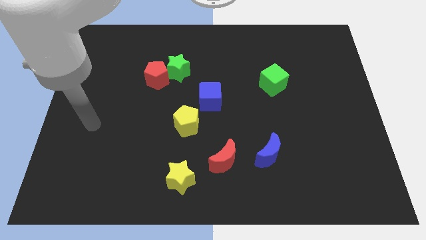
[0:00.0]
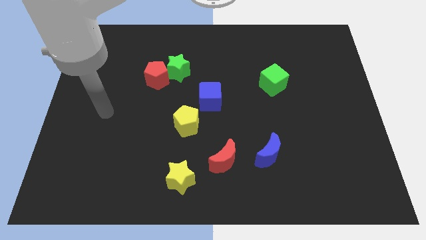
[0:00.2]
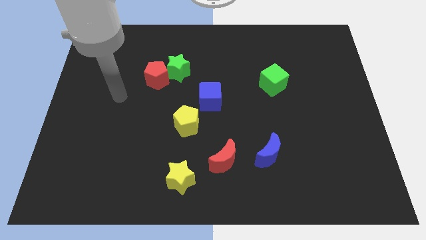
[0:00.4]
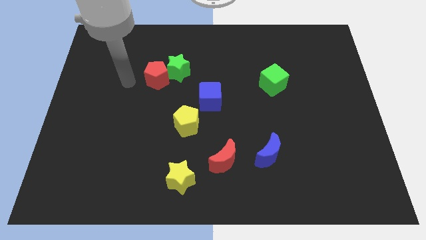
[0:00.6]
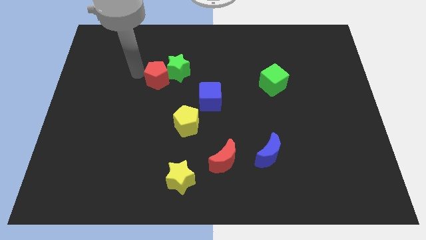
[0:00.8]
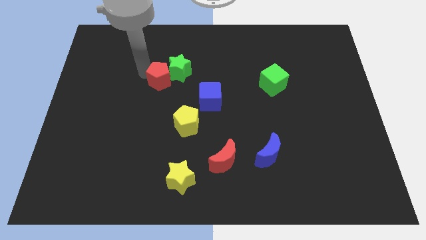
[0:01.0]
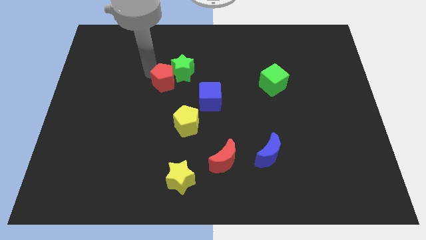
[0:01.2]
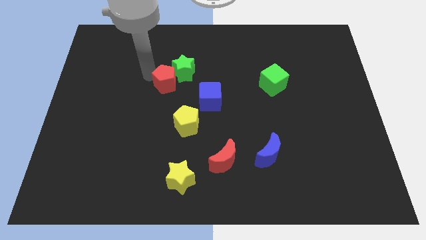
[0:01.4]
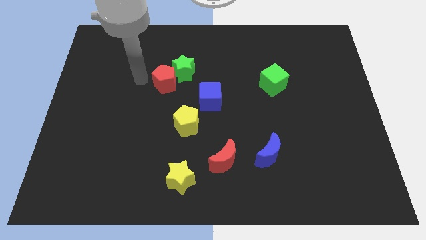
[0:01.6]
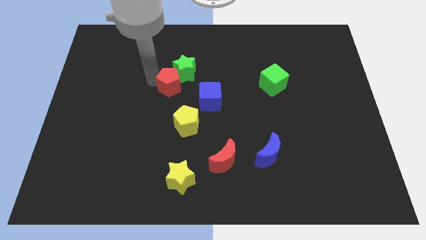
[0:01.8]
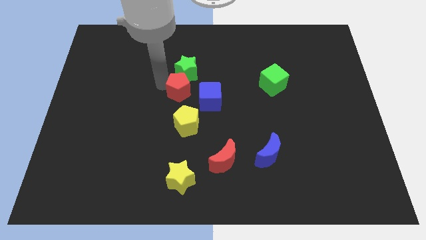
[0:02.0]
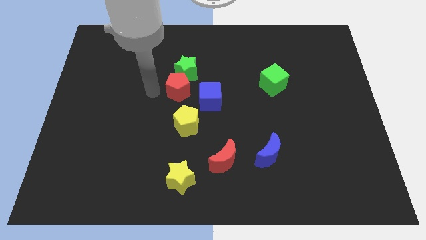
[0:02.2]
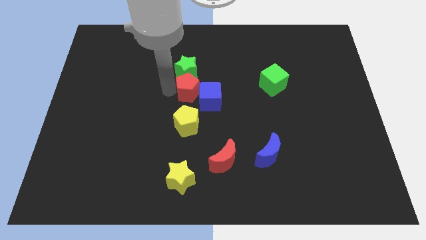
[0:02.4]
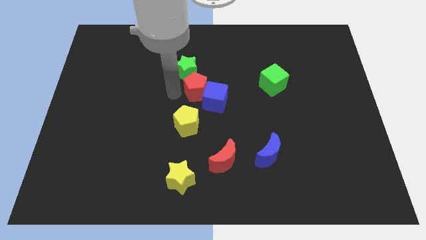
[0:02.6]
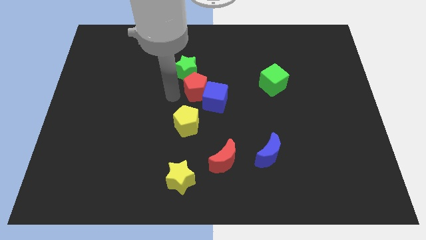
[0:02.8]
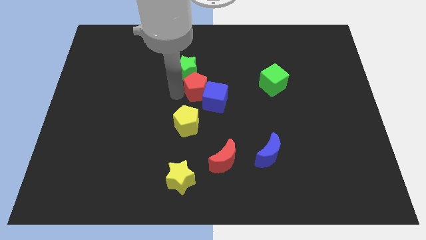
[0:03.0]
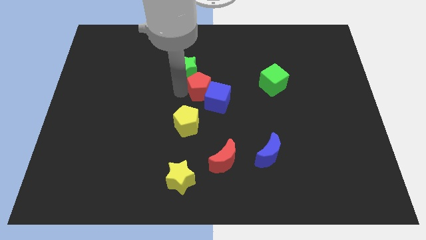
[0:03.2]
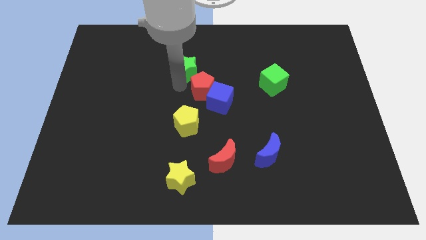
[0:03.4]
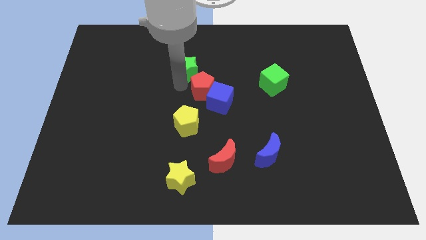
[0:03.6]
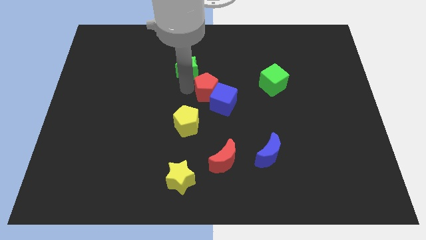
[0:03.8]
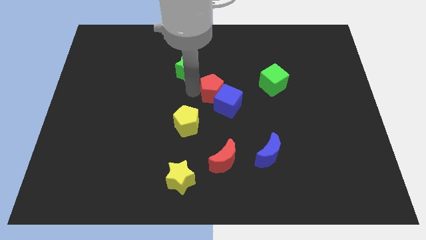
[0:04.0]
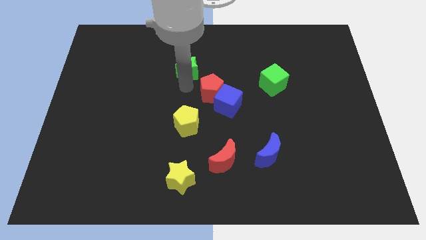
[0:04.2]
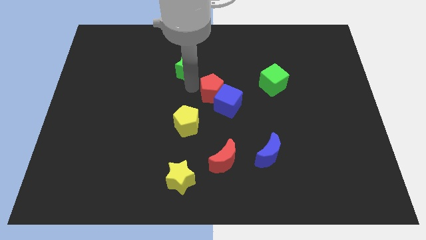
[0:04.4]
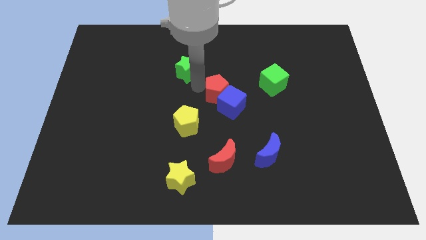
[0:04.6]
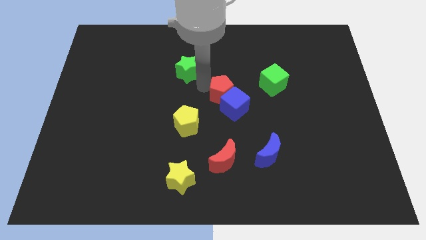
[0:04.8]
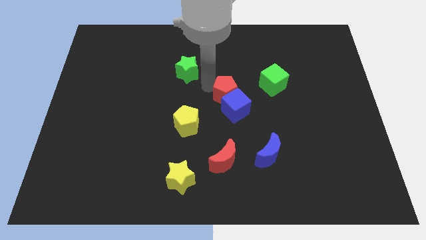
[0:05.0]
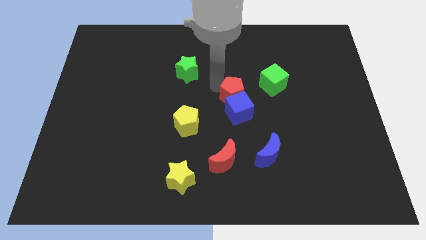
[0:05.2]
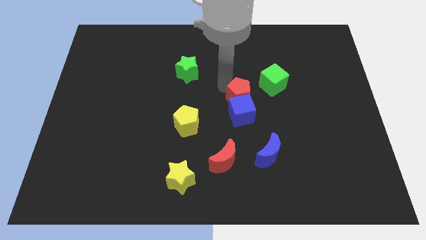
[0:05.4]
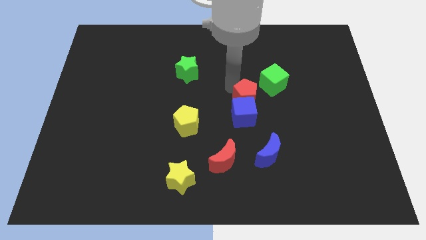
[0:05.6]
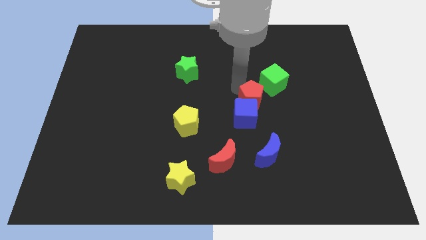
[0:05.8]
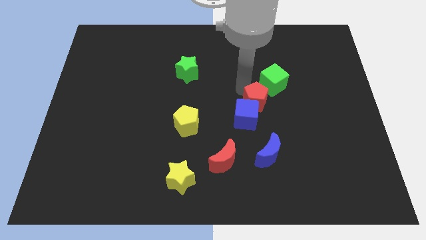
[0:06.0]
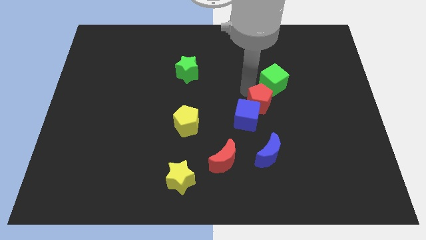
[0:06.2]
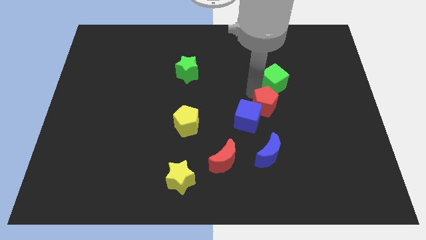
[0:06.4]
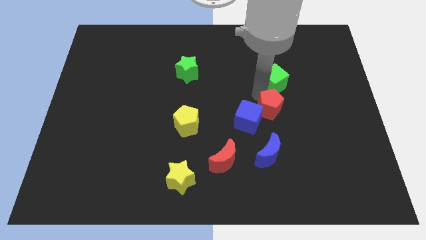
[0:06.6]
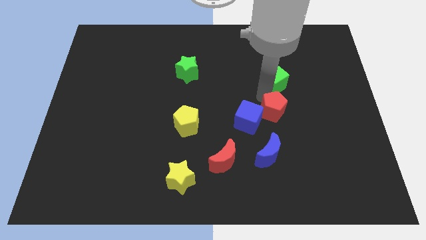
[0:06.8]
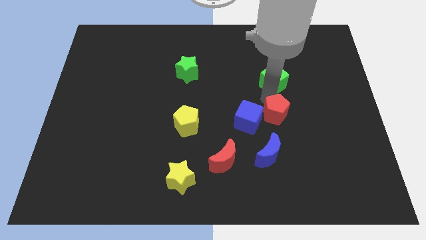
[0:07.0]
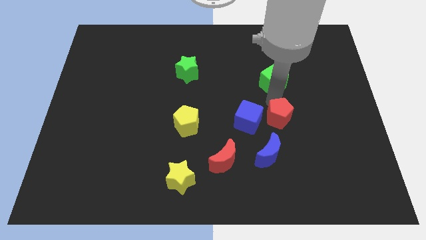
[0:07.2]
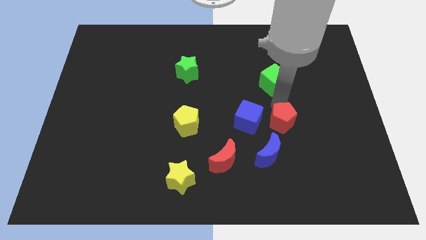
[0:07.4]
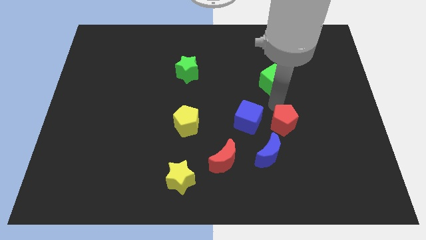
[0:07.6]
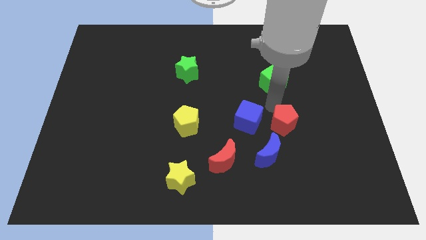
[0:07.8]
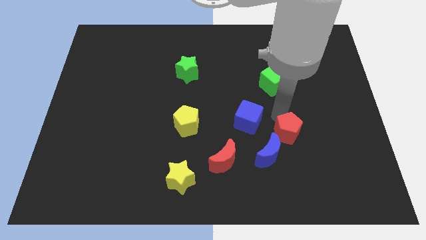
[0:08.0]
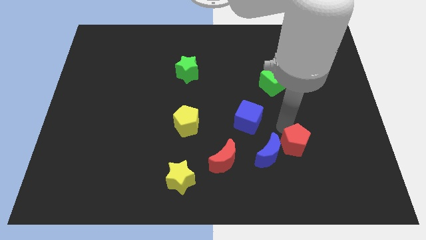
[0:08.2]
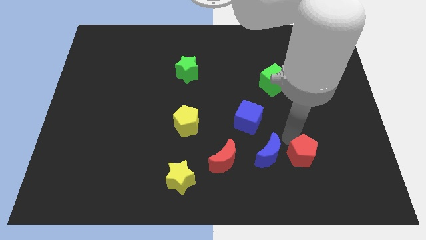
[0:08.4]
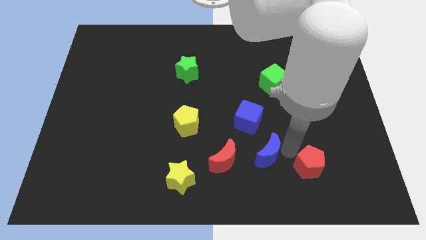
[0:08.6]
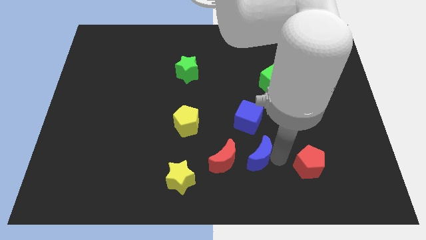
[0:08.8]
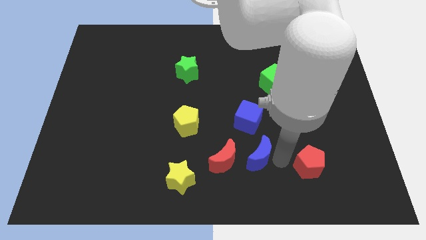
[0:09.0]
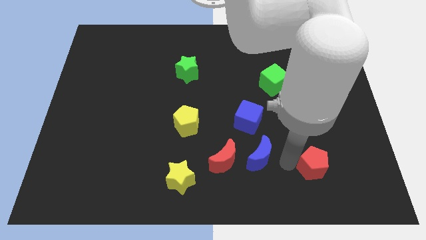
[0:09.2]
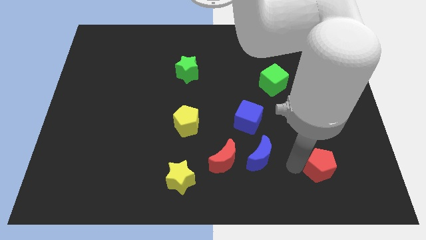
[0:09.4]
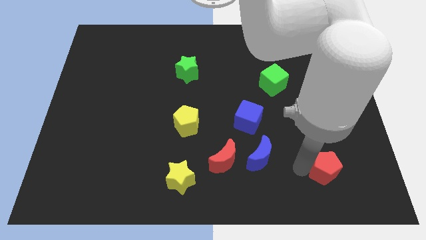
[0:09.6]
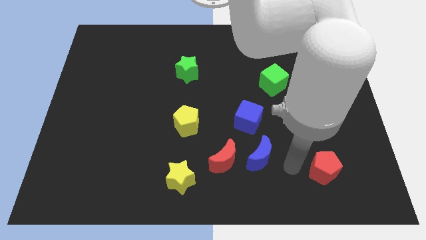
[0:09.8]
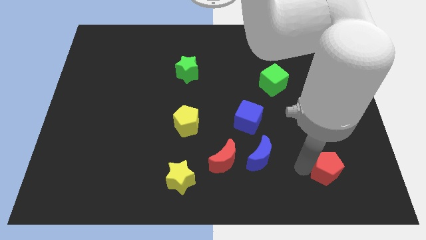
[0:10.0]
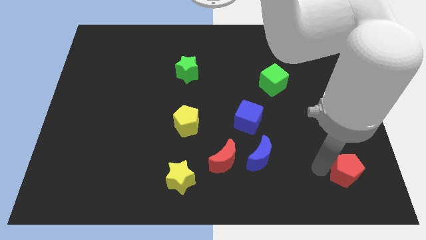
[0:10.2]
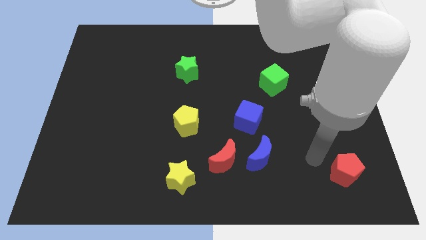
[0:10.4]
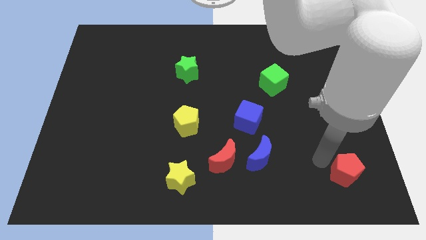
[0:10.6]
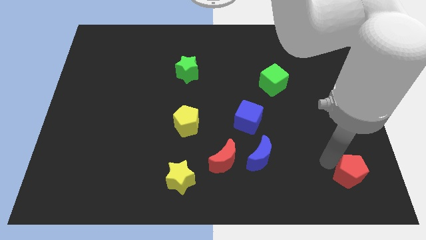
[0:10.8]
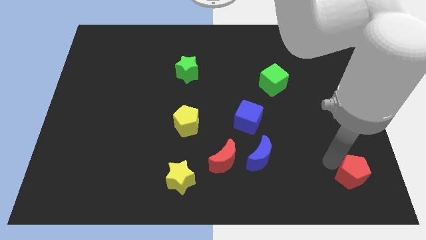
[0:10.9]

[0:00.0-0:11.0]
move the red pentagon to the bottom right of the board

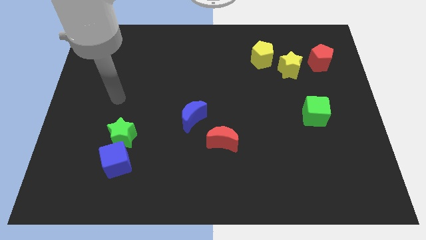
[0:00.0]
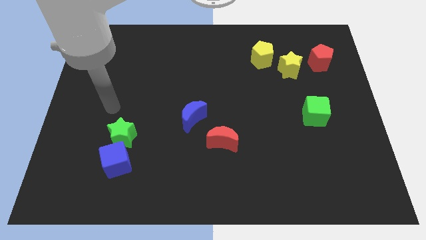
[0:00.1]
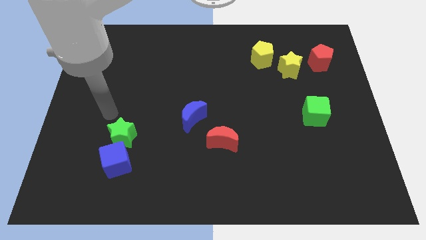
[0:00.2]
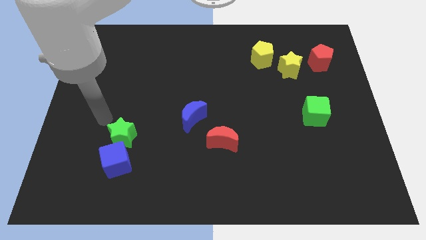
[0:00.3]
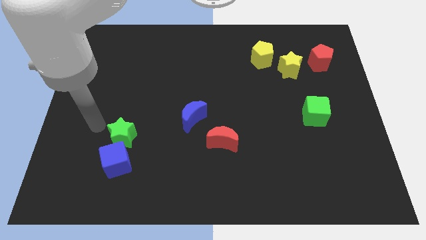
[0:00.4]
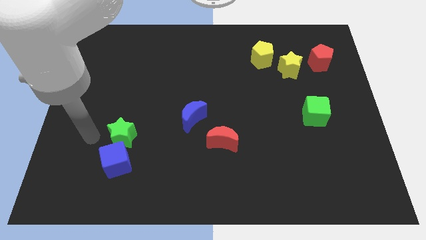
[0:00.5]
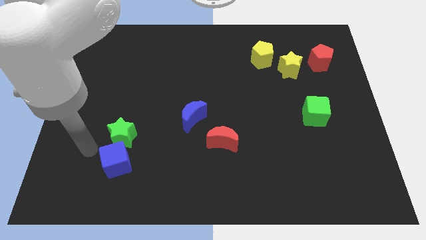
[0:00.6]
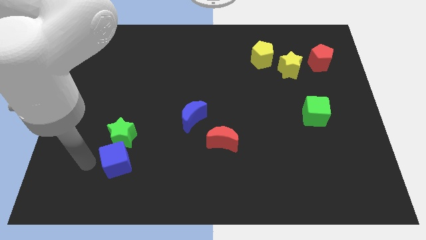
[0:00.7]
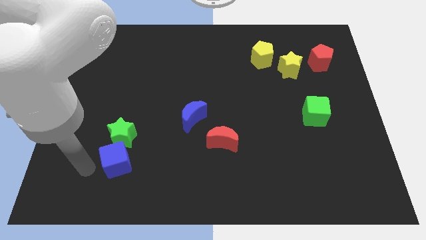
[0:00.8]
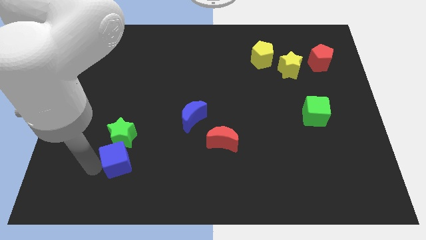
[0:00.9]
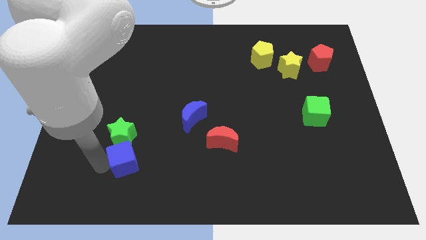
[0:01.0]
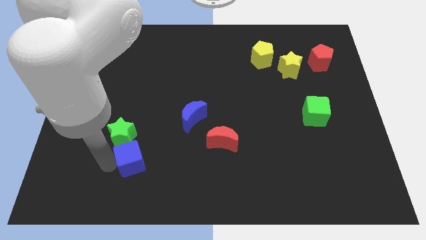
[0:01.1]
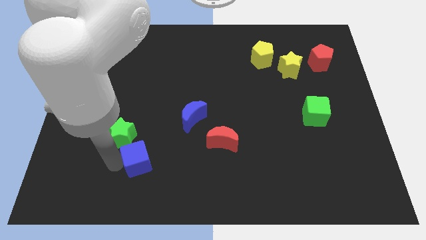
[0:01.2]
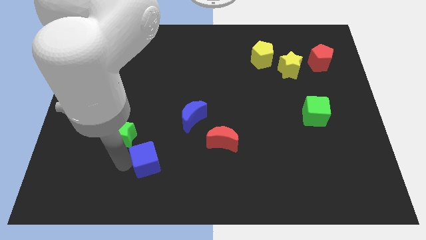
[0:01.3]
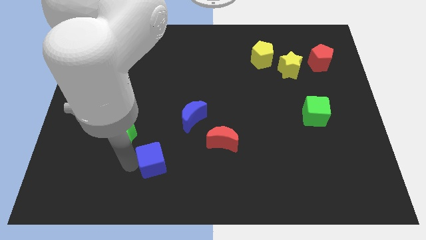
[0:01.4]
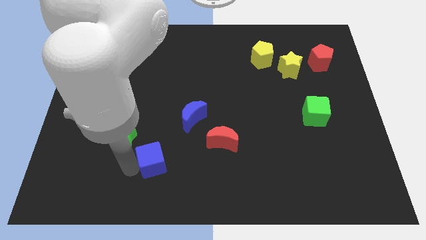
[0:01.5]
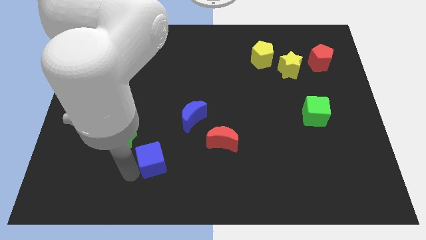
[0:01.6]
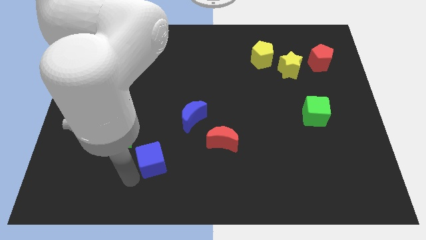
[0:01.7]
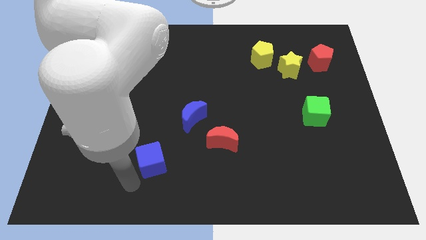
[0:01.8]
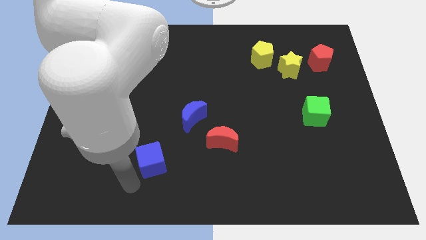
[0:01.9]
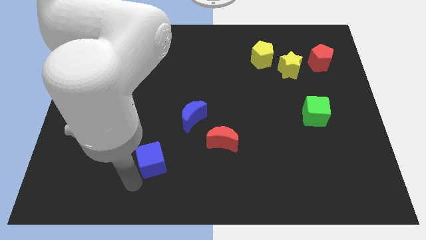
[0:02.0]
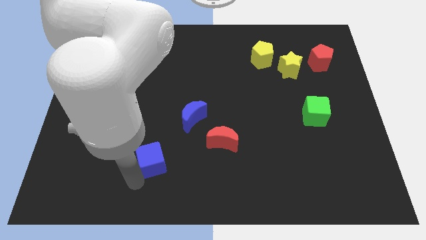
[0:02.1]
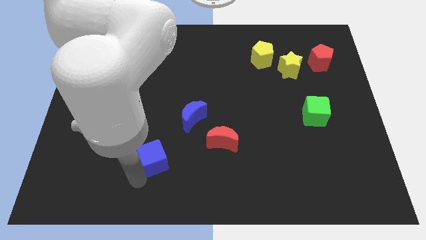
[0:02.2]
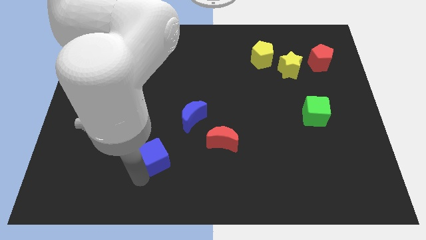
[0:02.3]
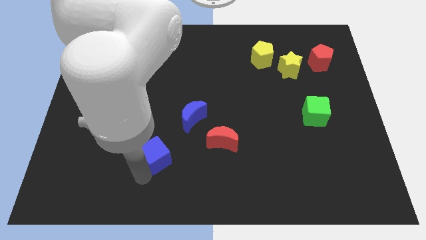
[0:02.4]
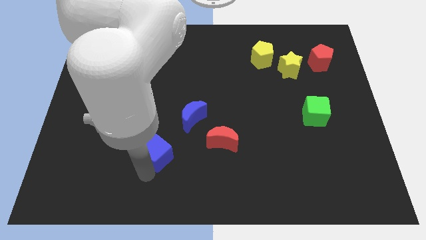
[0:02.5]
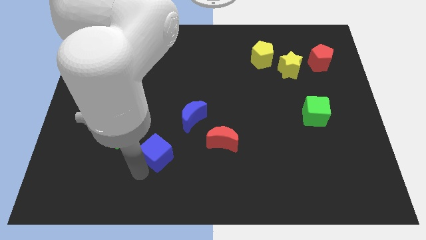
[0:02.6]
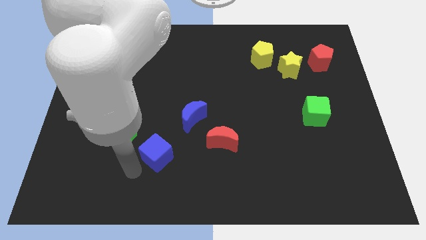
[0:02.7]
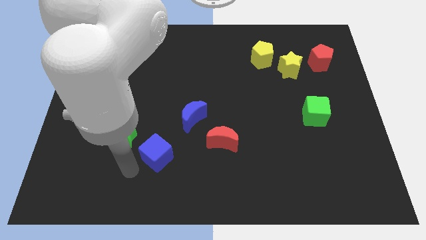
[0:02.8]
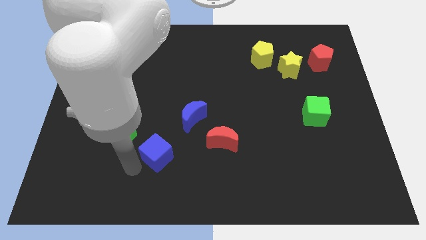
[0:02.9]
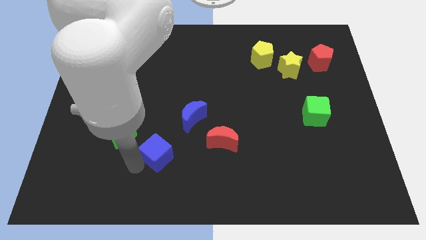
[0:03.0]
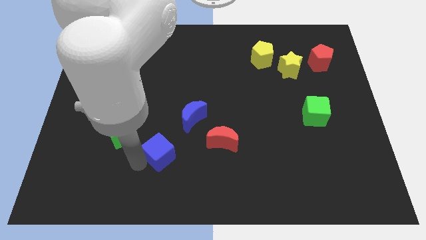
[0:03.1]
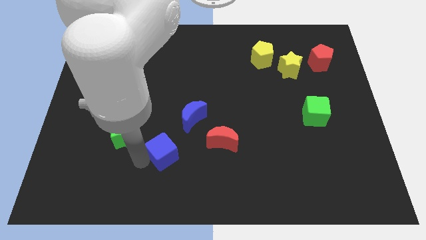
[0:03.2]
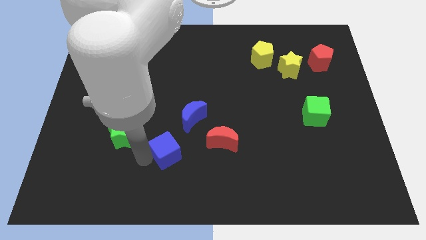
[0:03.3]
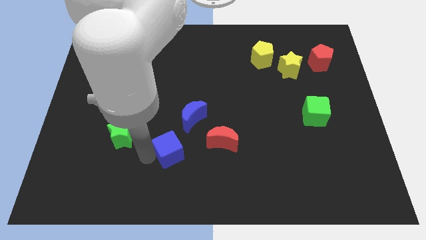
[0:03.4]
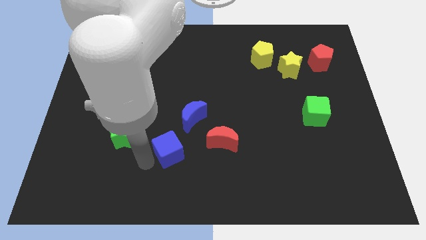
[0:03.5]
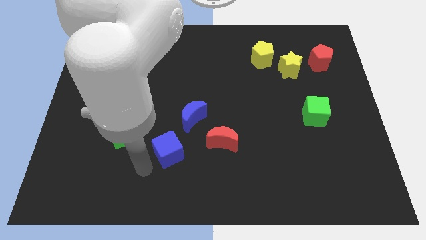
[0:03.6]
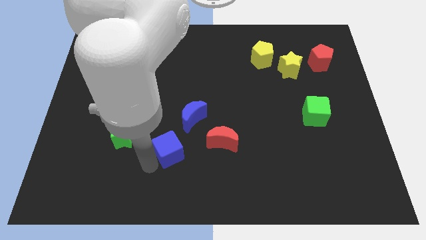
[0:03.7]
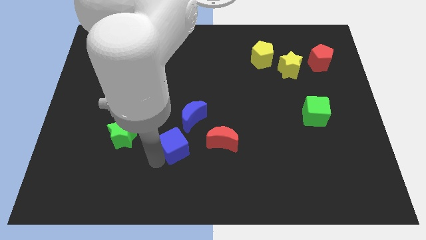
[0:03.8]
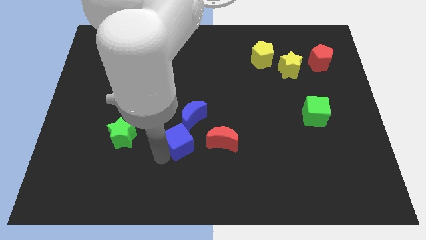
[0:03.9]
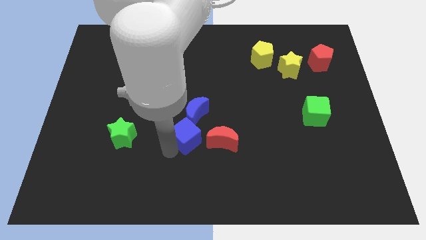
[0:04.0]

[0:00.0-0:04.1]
slide the blue cube to the middle of the board
